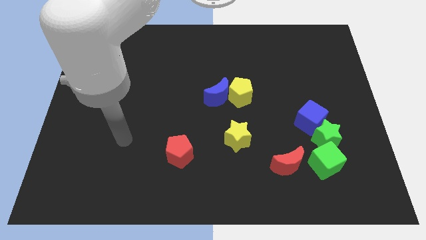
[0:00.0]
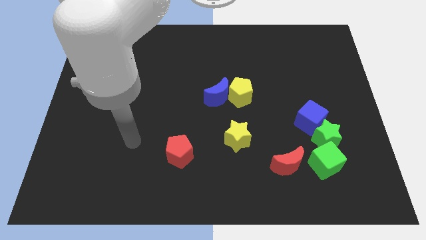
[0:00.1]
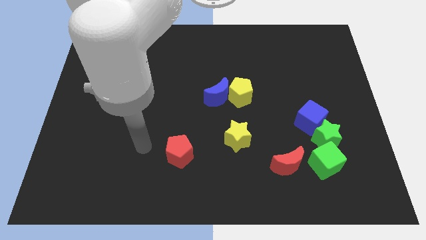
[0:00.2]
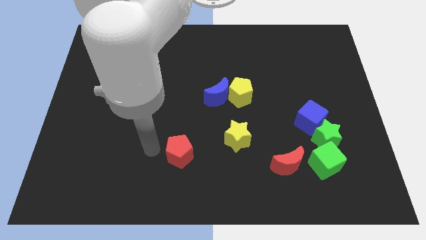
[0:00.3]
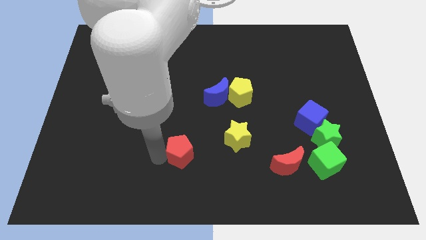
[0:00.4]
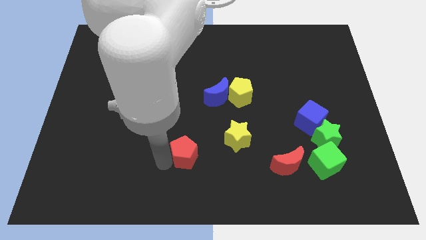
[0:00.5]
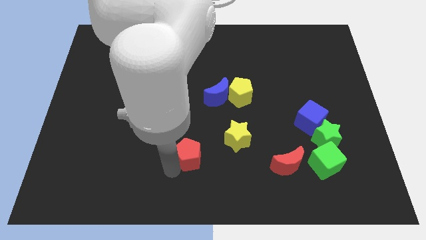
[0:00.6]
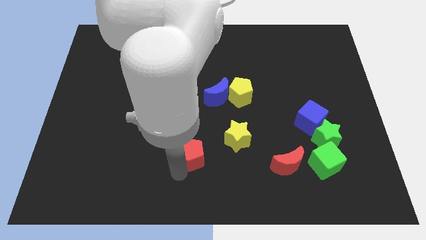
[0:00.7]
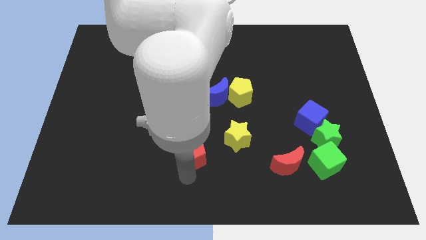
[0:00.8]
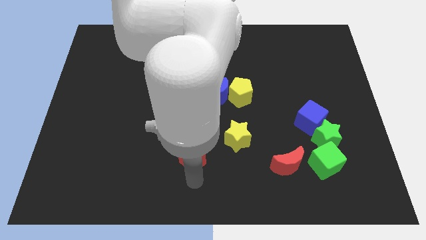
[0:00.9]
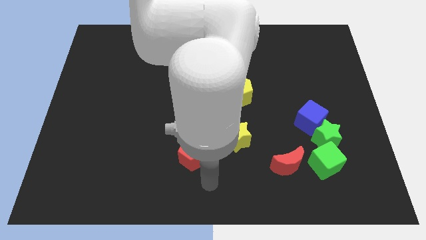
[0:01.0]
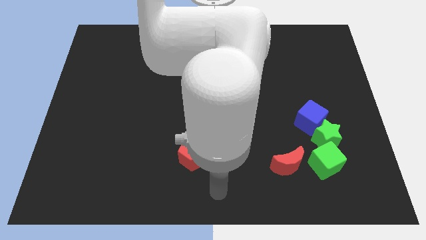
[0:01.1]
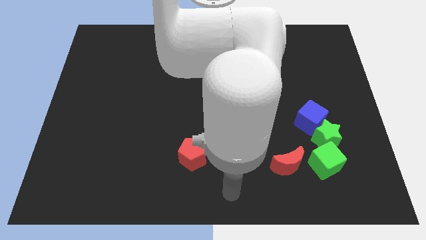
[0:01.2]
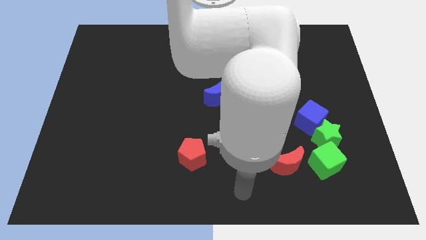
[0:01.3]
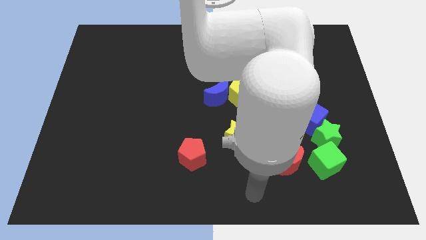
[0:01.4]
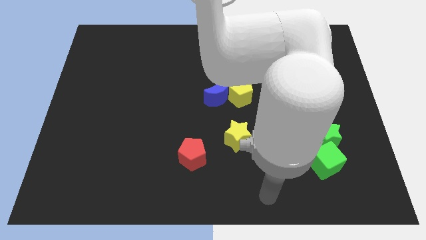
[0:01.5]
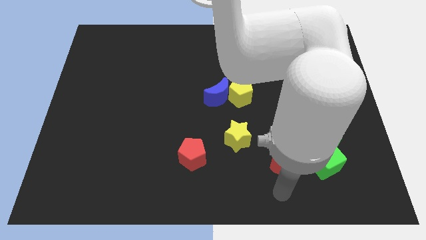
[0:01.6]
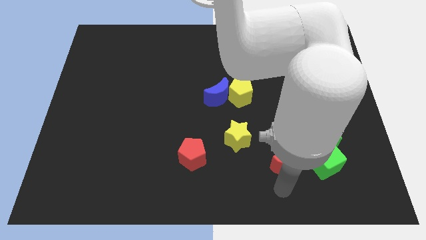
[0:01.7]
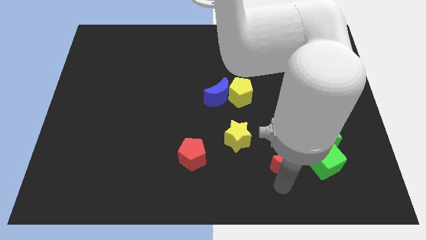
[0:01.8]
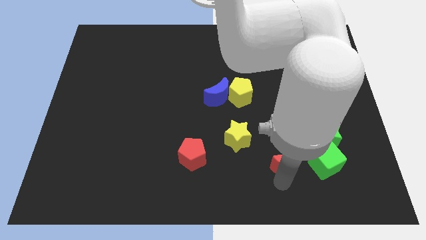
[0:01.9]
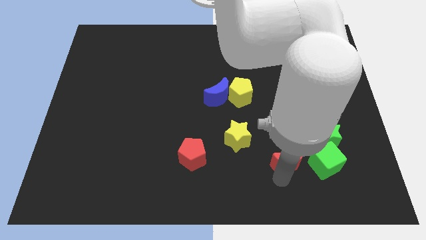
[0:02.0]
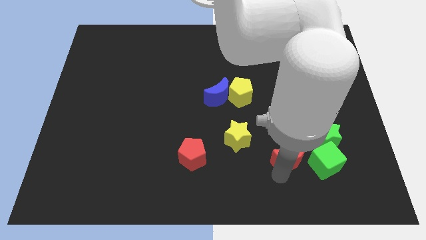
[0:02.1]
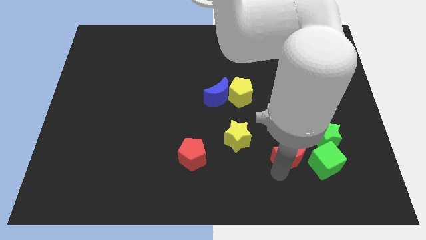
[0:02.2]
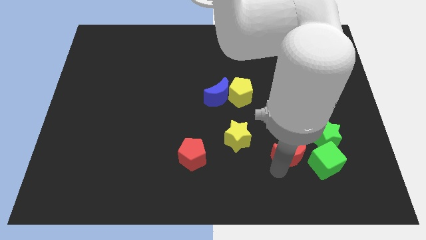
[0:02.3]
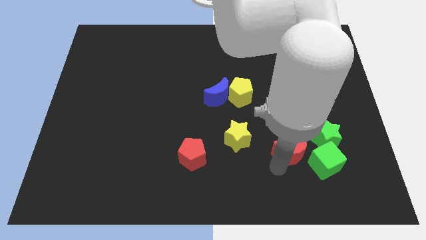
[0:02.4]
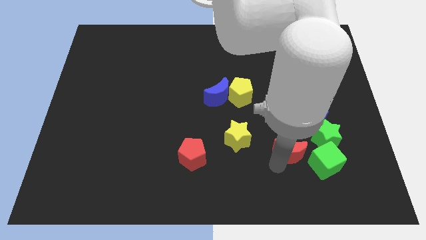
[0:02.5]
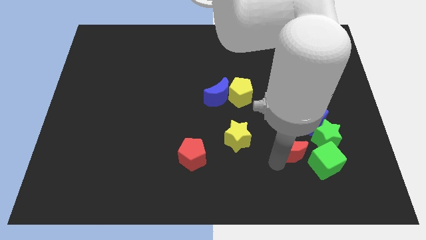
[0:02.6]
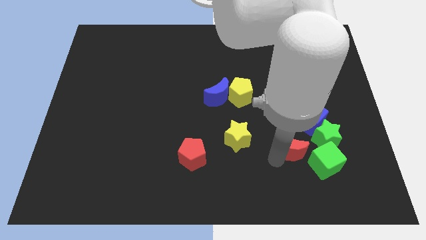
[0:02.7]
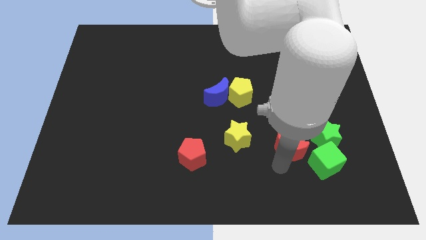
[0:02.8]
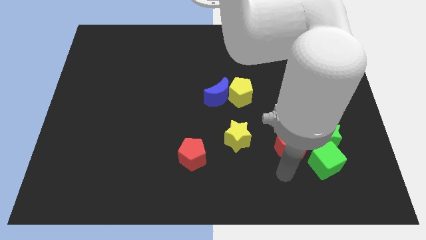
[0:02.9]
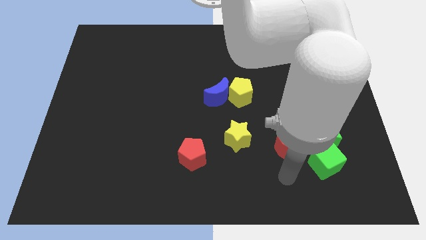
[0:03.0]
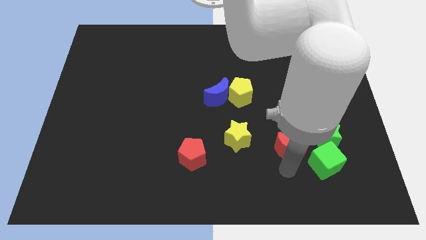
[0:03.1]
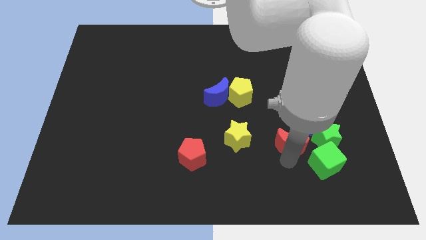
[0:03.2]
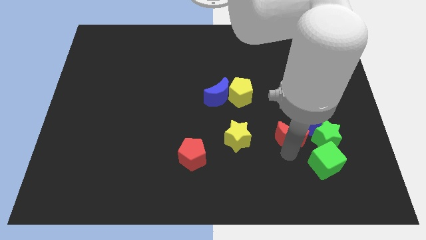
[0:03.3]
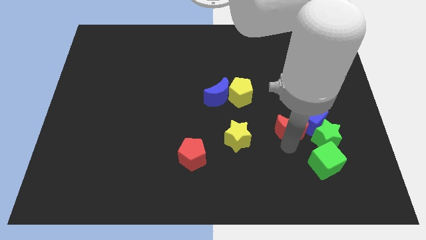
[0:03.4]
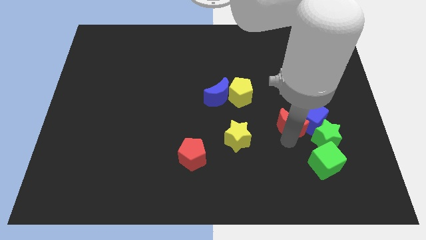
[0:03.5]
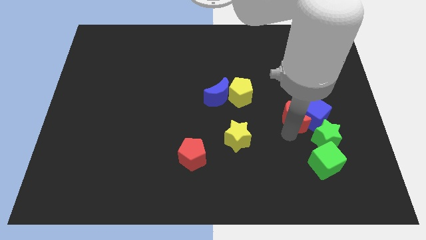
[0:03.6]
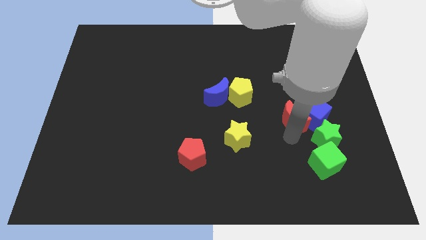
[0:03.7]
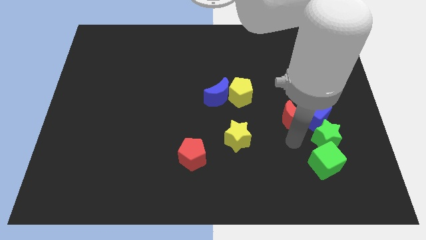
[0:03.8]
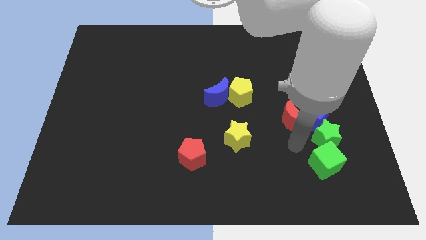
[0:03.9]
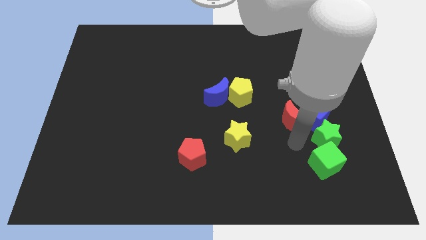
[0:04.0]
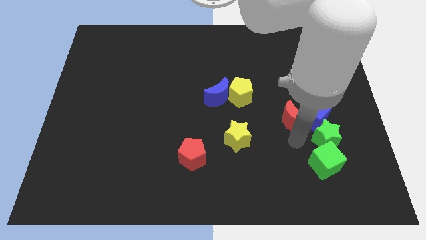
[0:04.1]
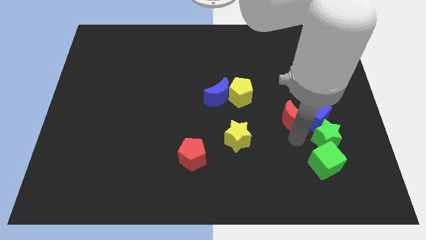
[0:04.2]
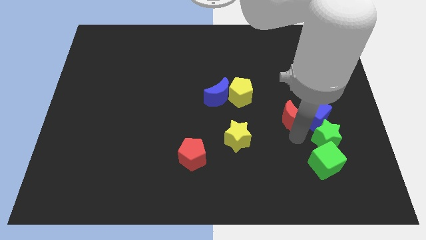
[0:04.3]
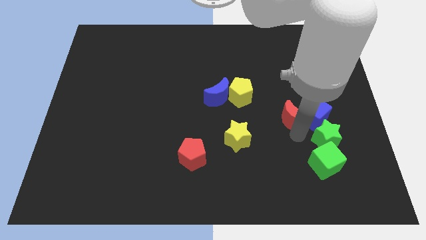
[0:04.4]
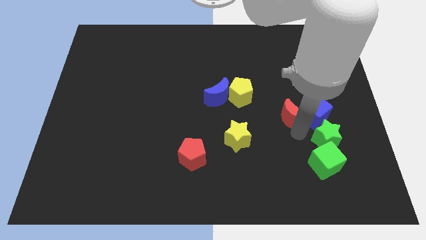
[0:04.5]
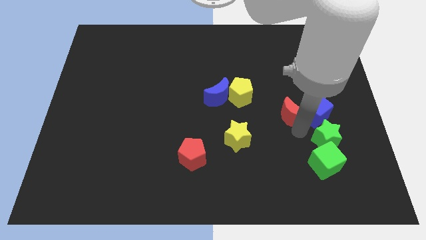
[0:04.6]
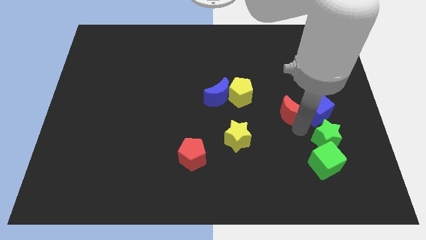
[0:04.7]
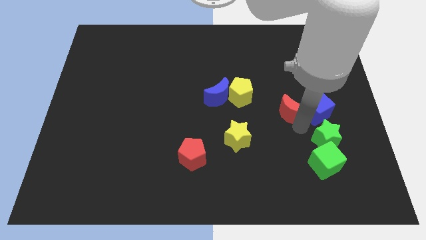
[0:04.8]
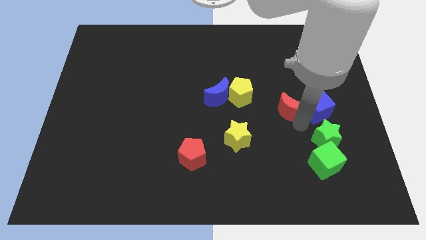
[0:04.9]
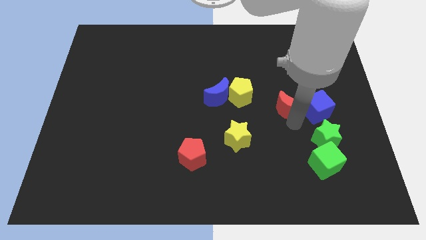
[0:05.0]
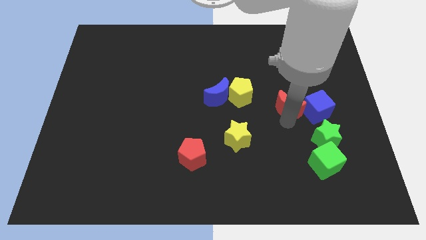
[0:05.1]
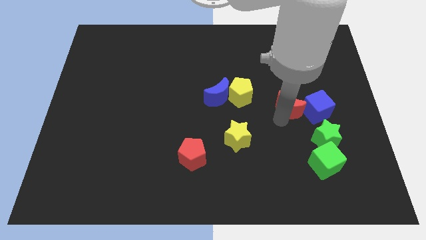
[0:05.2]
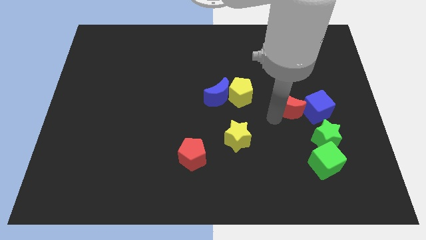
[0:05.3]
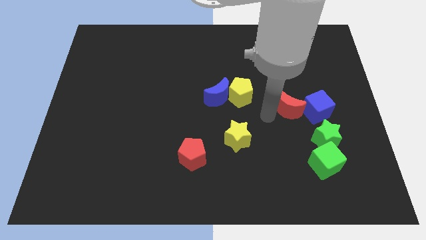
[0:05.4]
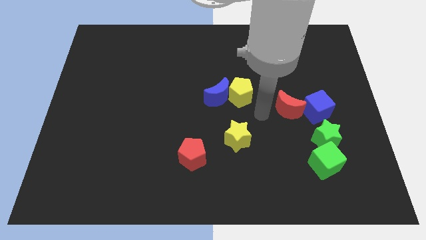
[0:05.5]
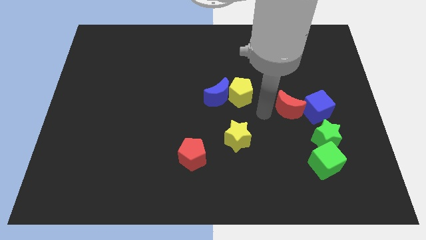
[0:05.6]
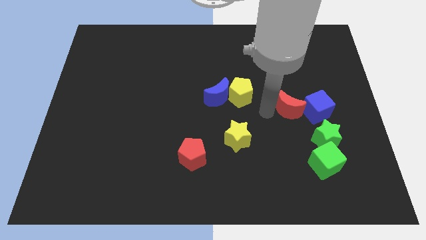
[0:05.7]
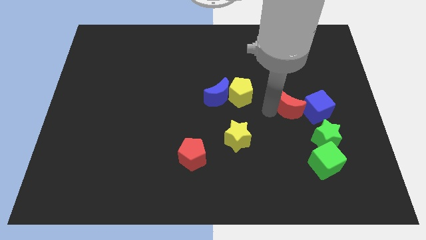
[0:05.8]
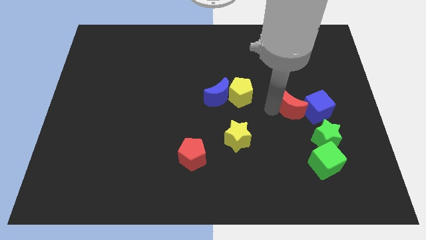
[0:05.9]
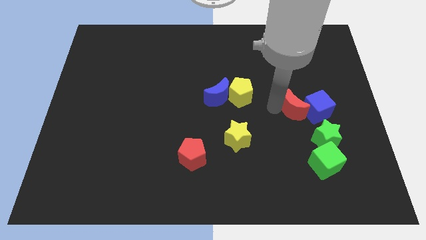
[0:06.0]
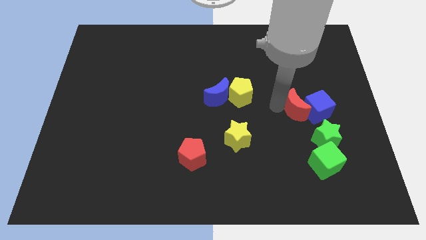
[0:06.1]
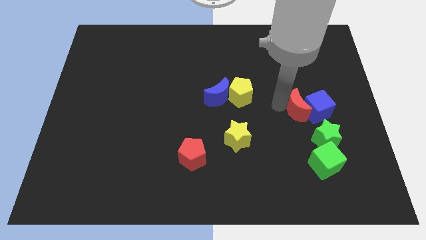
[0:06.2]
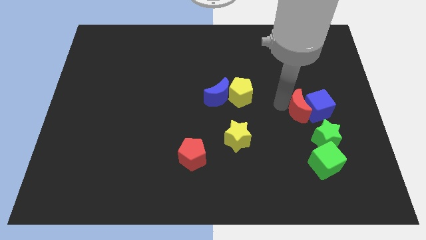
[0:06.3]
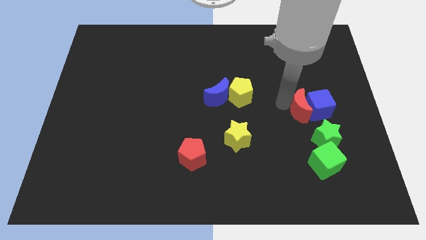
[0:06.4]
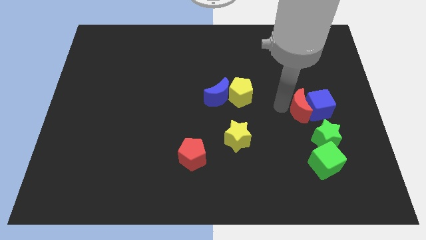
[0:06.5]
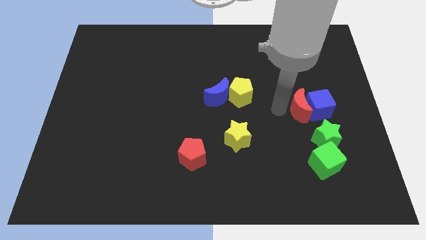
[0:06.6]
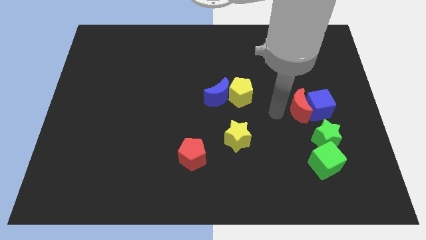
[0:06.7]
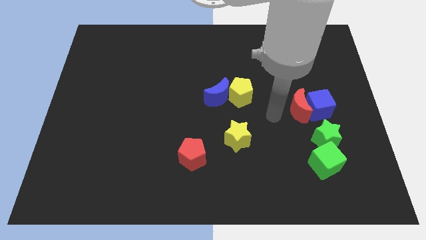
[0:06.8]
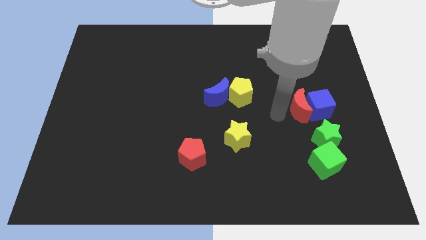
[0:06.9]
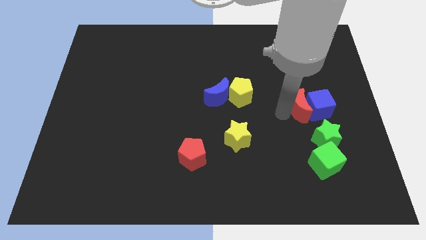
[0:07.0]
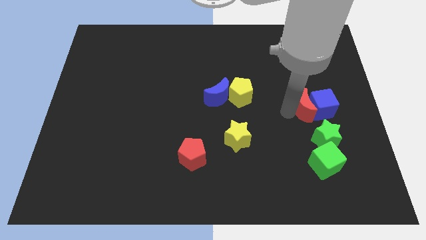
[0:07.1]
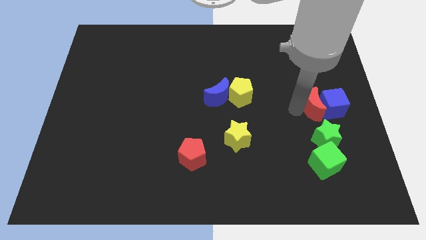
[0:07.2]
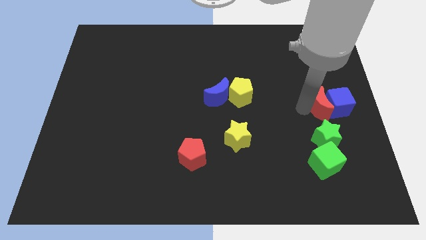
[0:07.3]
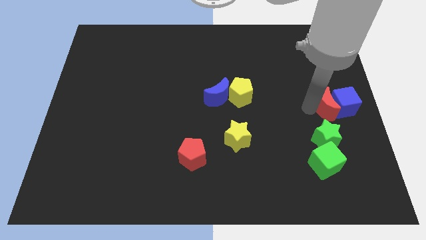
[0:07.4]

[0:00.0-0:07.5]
move the red moon to the right side
